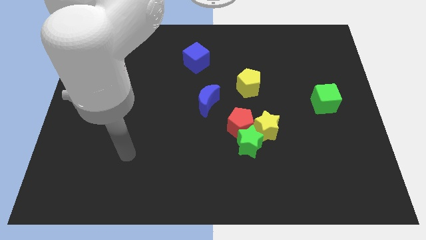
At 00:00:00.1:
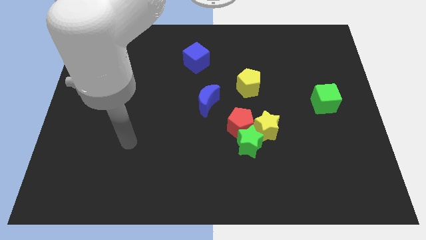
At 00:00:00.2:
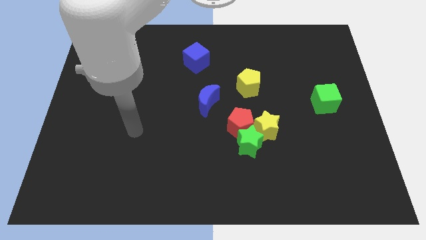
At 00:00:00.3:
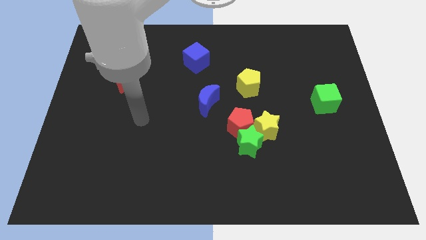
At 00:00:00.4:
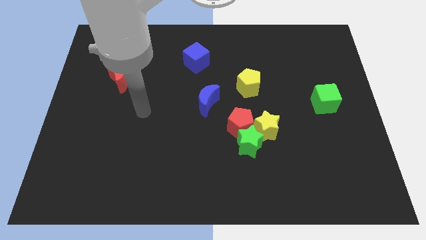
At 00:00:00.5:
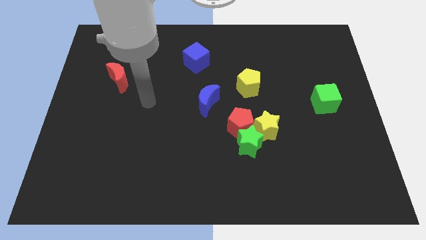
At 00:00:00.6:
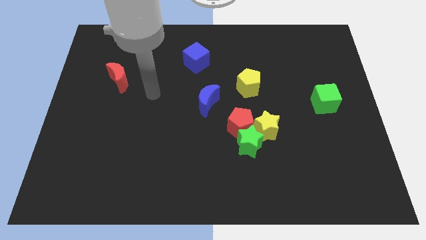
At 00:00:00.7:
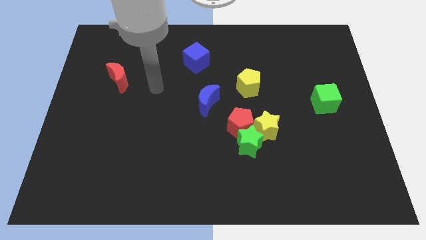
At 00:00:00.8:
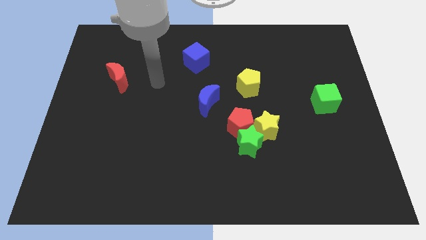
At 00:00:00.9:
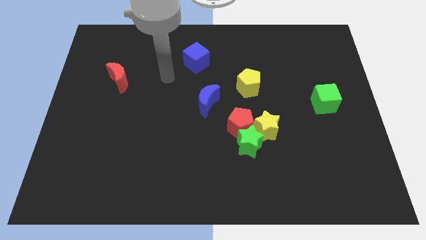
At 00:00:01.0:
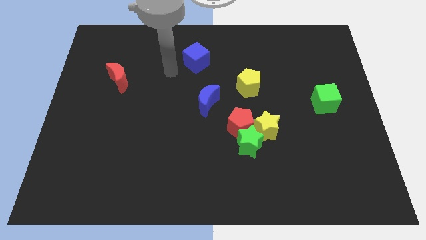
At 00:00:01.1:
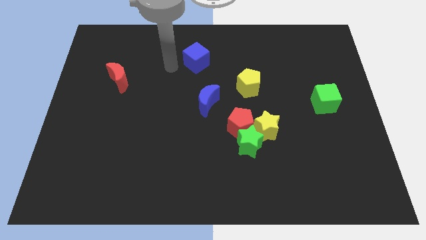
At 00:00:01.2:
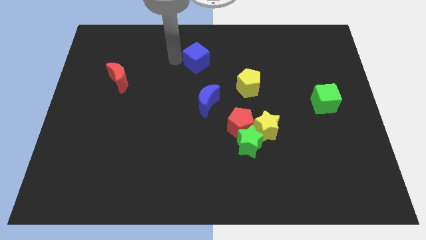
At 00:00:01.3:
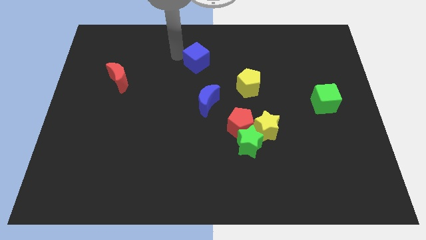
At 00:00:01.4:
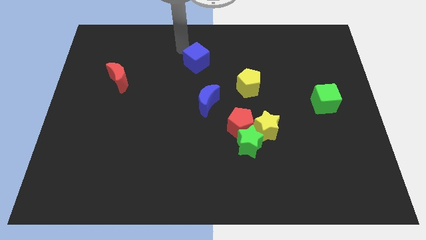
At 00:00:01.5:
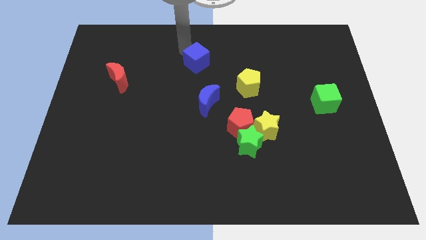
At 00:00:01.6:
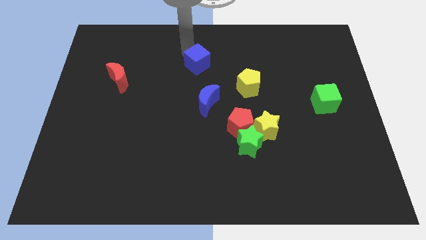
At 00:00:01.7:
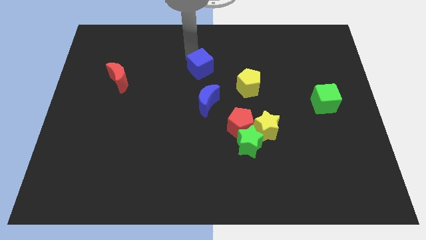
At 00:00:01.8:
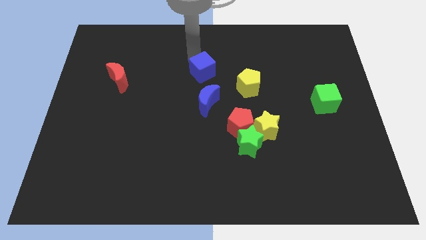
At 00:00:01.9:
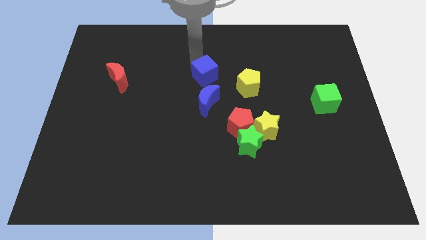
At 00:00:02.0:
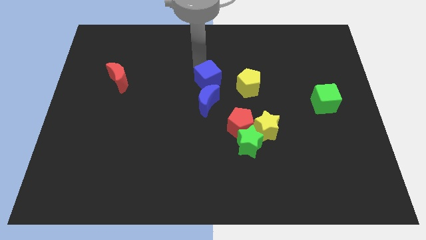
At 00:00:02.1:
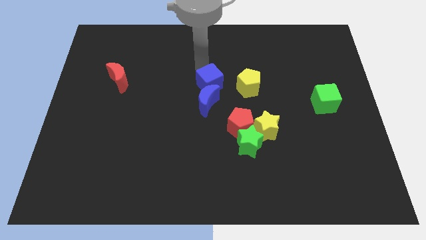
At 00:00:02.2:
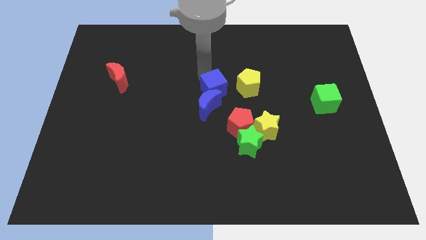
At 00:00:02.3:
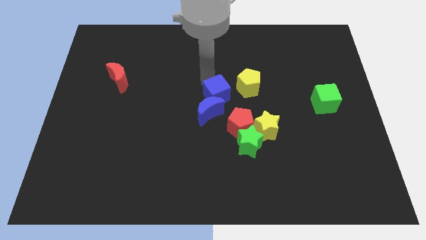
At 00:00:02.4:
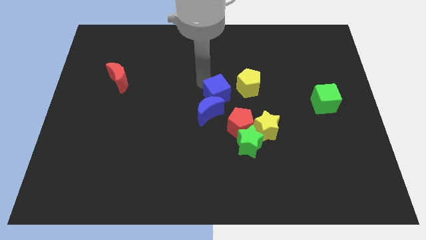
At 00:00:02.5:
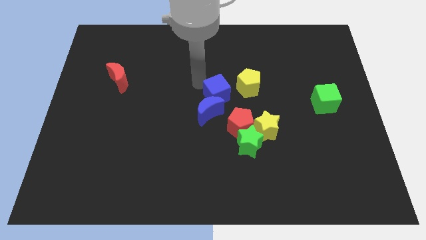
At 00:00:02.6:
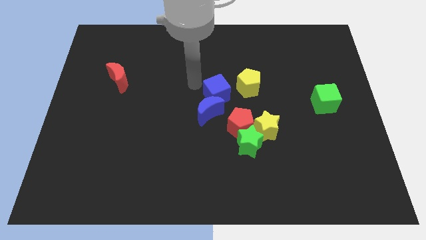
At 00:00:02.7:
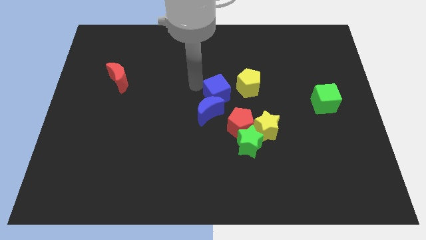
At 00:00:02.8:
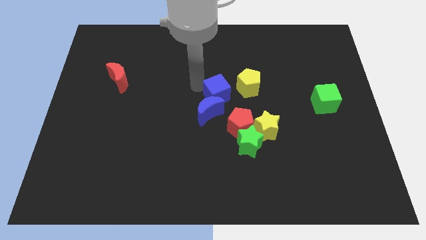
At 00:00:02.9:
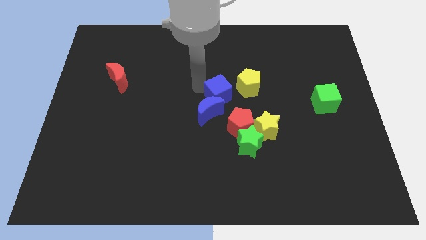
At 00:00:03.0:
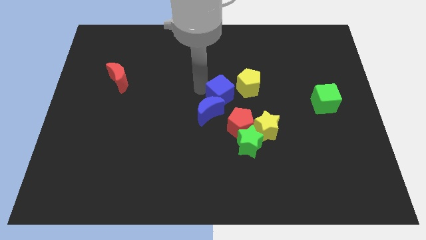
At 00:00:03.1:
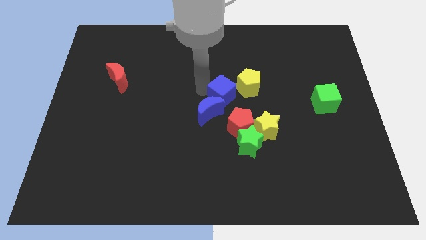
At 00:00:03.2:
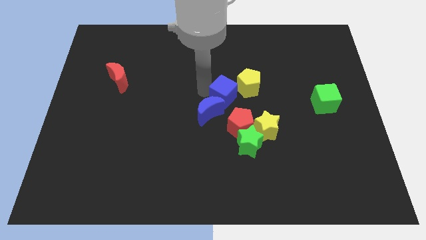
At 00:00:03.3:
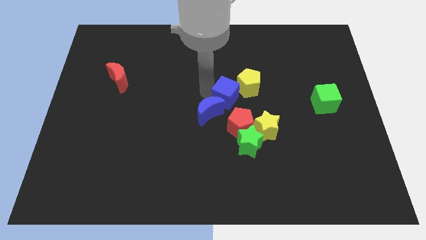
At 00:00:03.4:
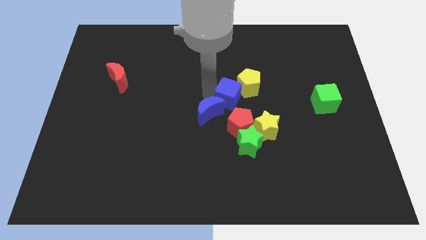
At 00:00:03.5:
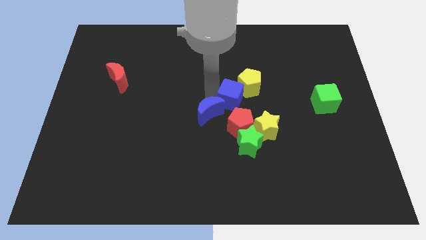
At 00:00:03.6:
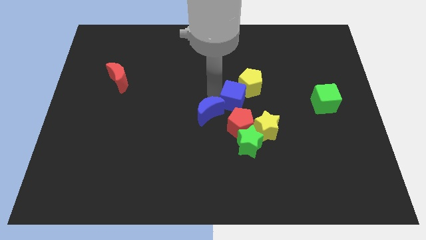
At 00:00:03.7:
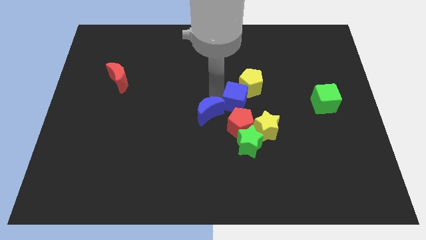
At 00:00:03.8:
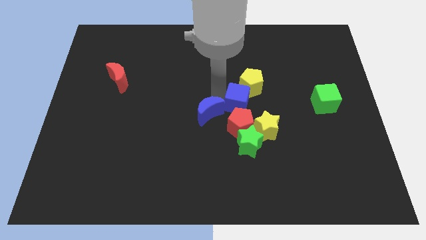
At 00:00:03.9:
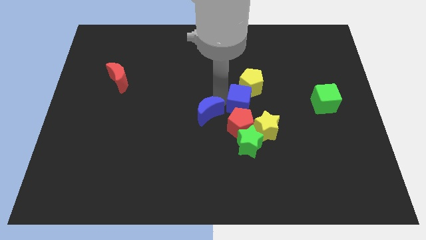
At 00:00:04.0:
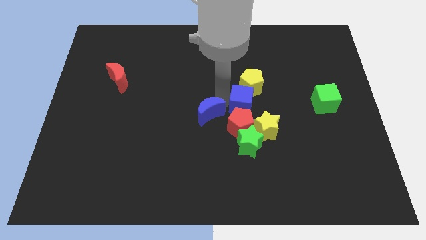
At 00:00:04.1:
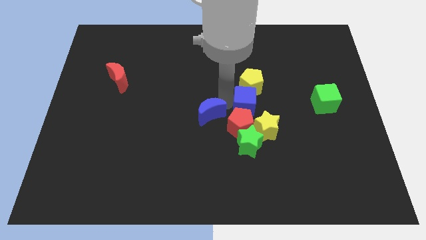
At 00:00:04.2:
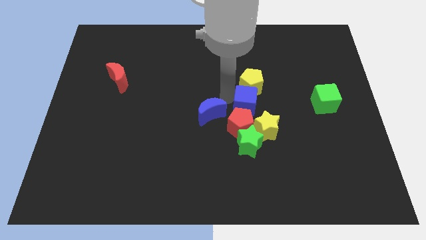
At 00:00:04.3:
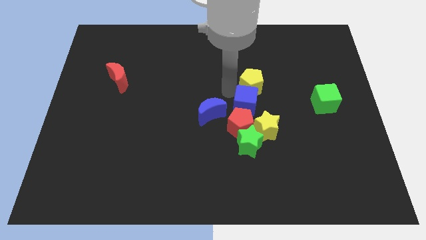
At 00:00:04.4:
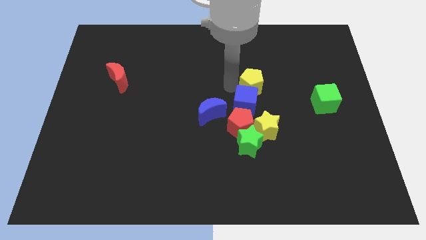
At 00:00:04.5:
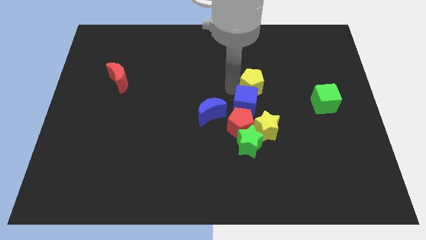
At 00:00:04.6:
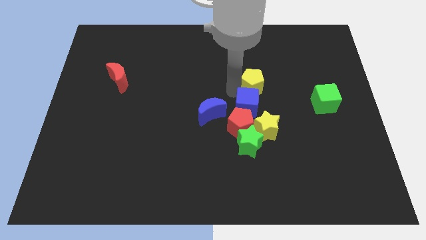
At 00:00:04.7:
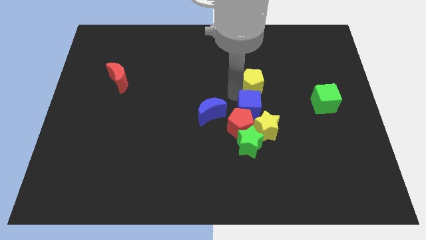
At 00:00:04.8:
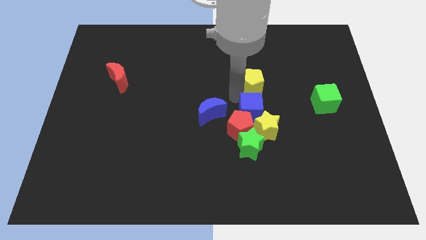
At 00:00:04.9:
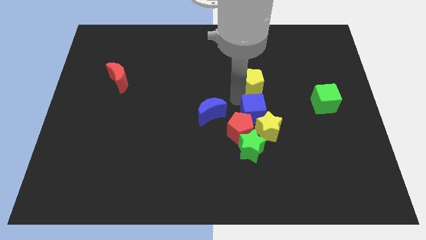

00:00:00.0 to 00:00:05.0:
put the blue cube towards the yellow star

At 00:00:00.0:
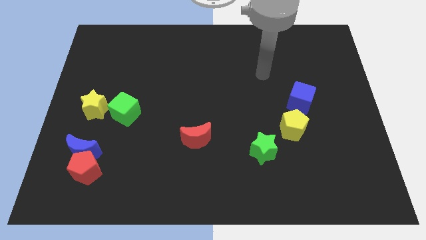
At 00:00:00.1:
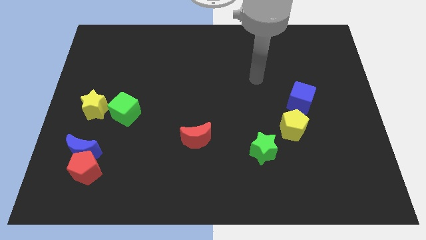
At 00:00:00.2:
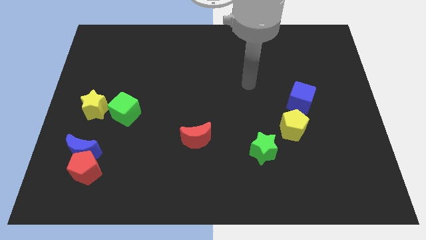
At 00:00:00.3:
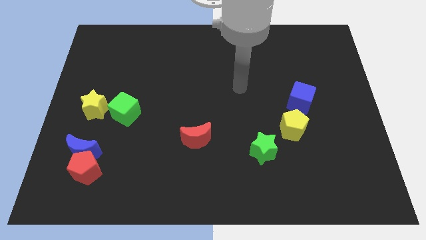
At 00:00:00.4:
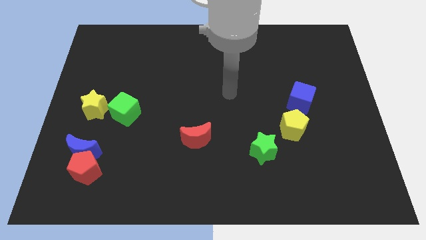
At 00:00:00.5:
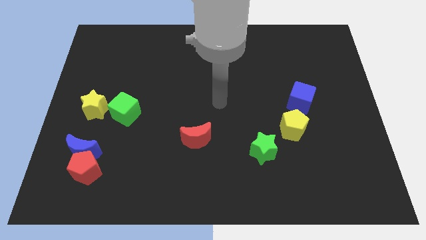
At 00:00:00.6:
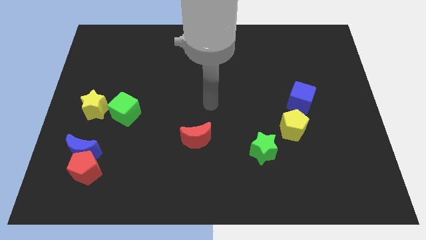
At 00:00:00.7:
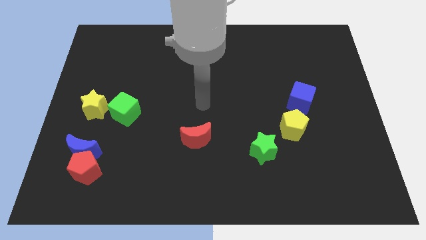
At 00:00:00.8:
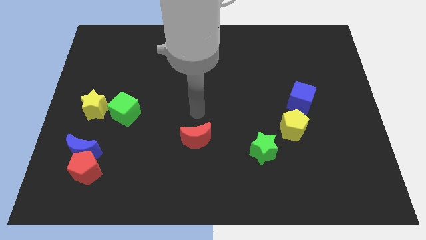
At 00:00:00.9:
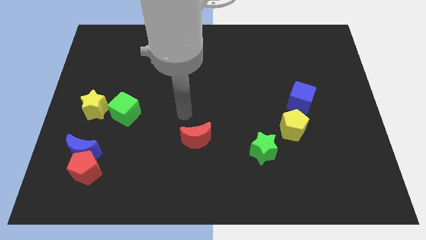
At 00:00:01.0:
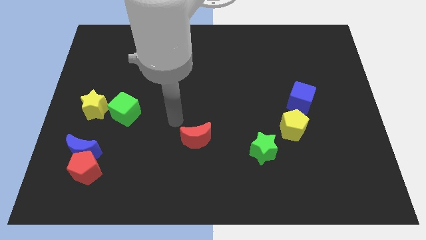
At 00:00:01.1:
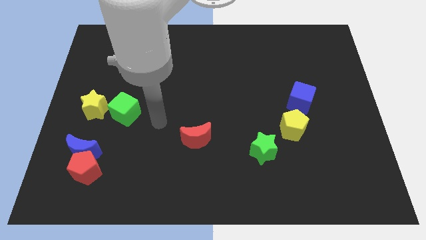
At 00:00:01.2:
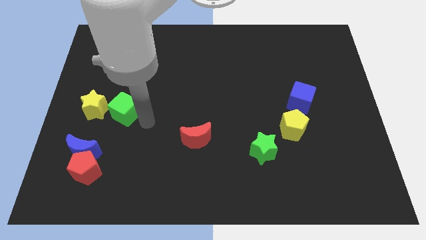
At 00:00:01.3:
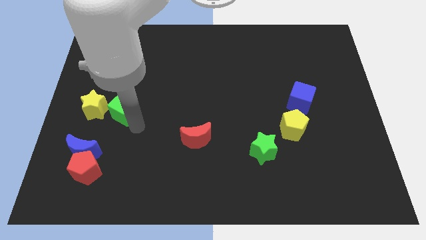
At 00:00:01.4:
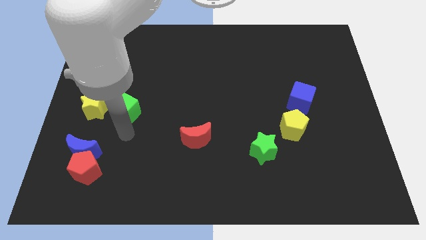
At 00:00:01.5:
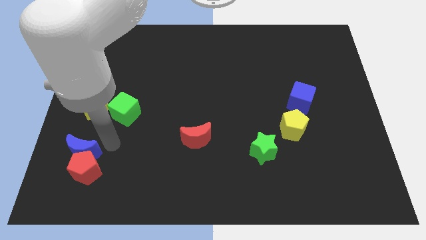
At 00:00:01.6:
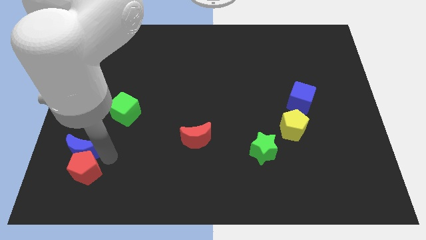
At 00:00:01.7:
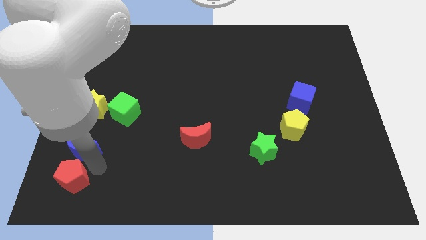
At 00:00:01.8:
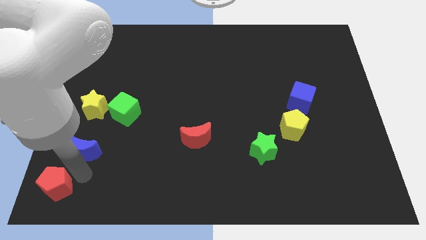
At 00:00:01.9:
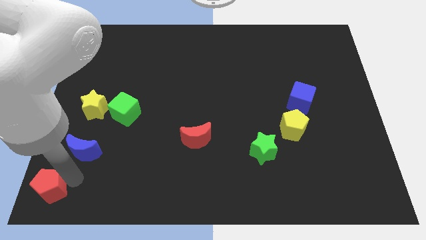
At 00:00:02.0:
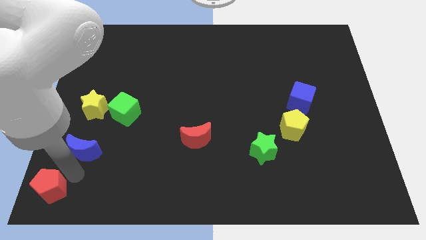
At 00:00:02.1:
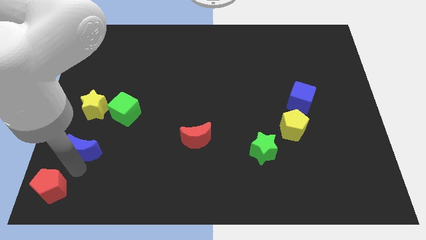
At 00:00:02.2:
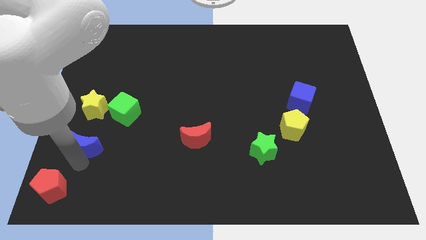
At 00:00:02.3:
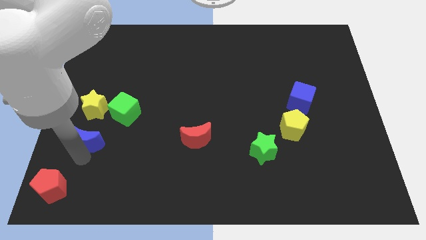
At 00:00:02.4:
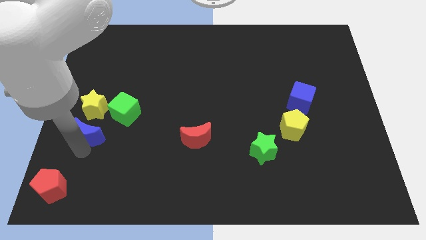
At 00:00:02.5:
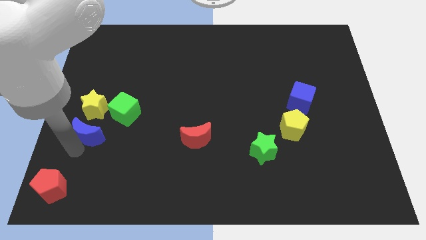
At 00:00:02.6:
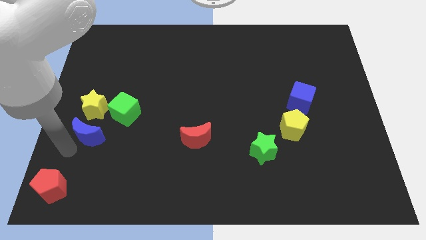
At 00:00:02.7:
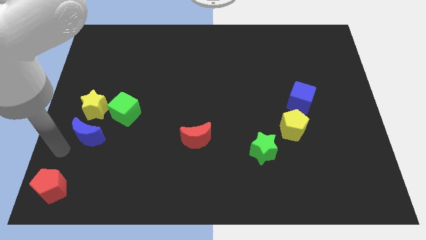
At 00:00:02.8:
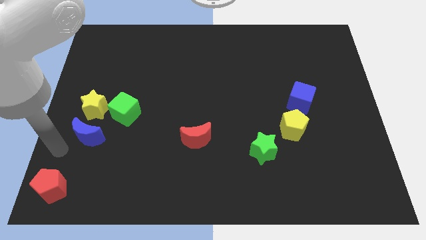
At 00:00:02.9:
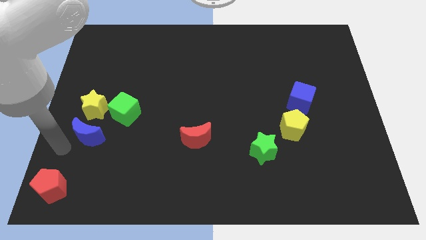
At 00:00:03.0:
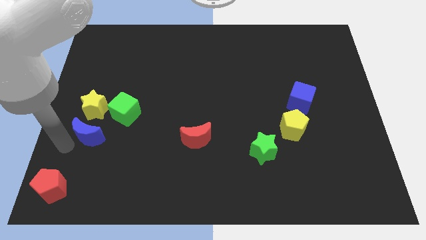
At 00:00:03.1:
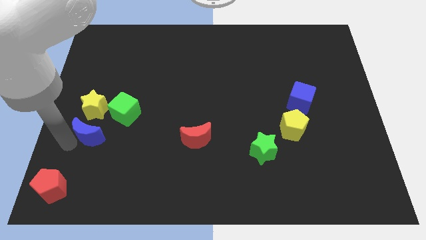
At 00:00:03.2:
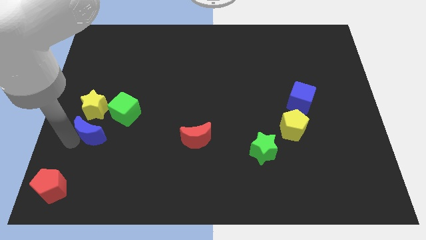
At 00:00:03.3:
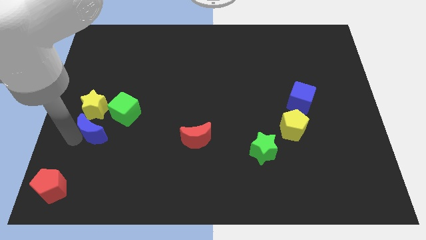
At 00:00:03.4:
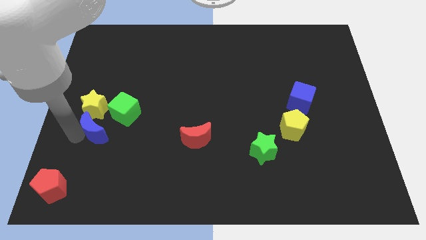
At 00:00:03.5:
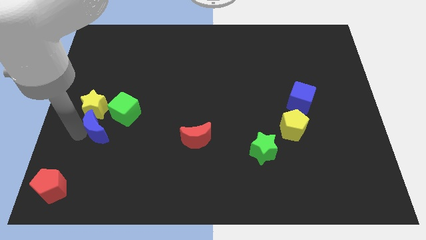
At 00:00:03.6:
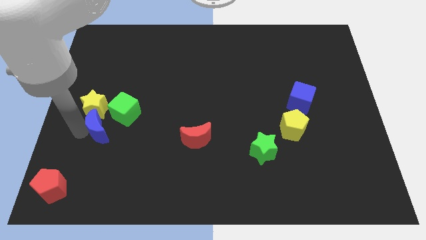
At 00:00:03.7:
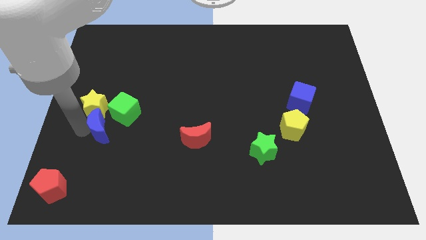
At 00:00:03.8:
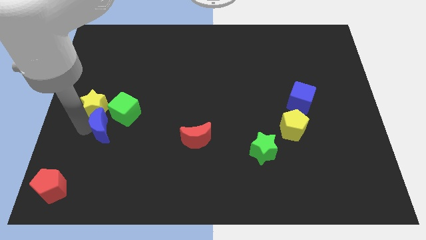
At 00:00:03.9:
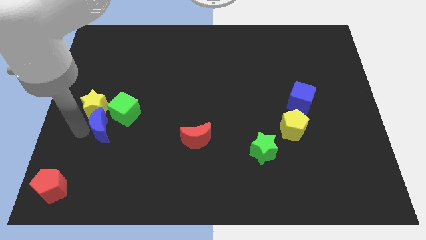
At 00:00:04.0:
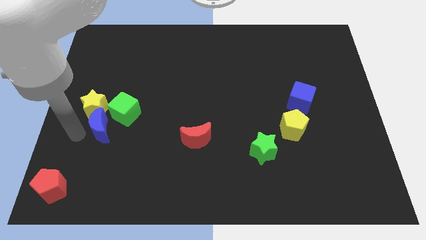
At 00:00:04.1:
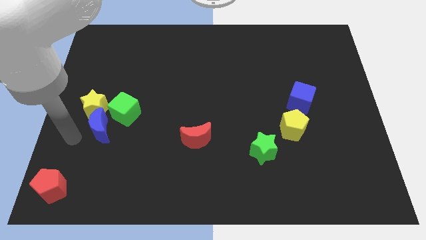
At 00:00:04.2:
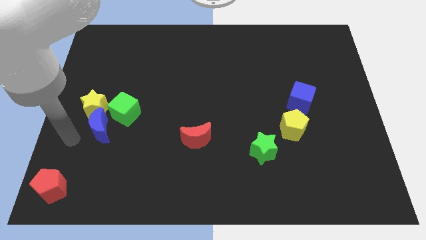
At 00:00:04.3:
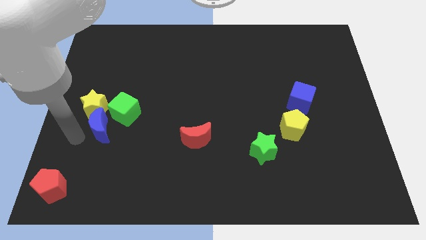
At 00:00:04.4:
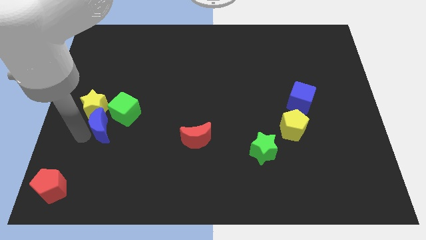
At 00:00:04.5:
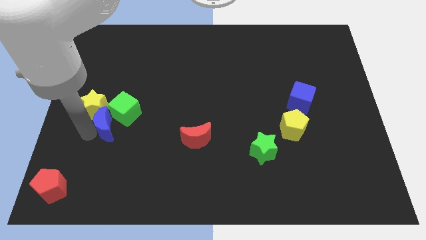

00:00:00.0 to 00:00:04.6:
put the blue moon close to the green cube
